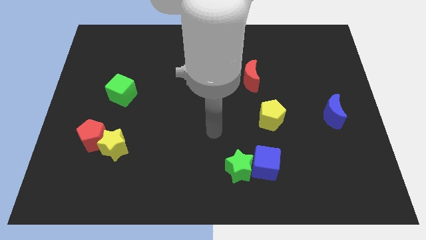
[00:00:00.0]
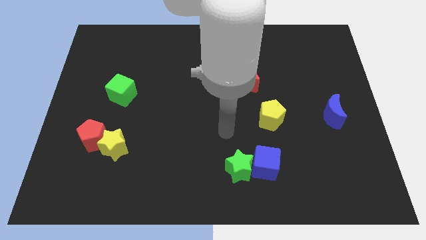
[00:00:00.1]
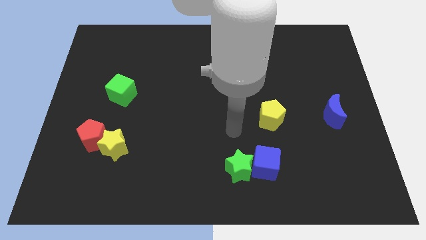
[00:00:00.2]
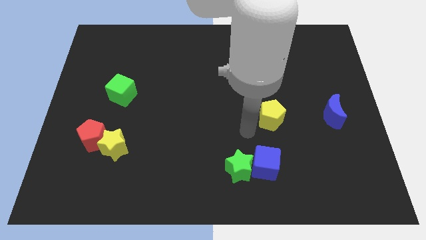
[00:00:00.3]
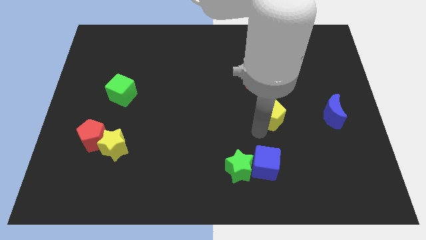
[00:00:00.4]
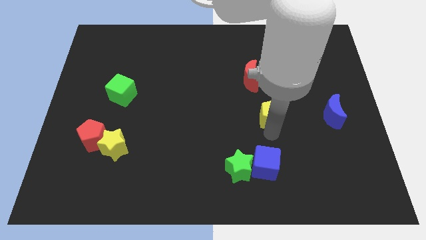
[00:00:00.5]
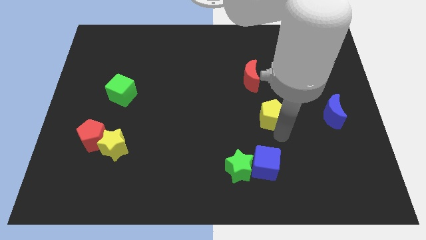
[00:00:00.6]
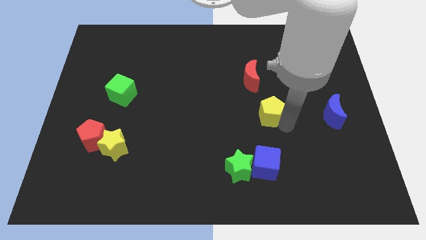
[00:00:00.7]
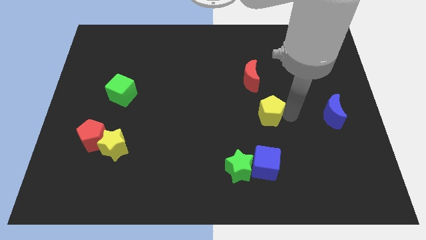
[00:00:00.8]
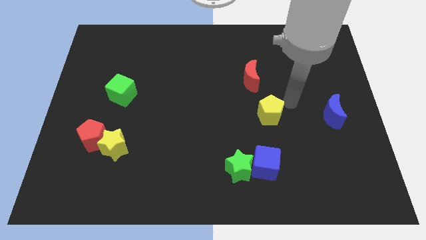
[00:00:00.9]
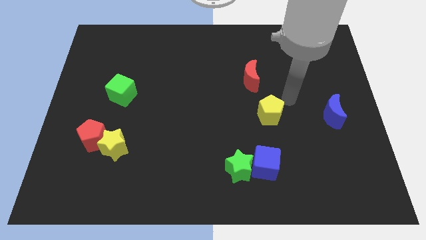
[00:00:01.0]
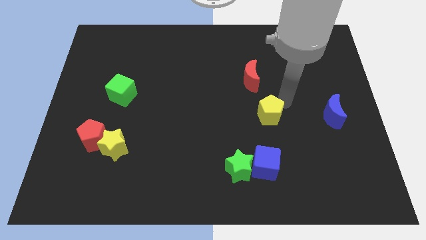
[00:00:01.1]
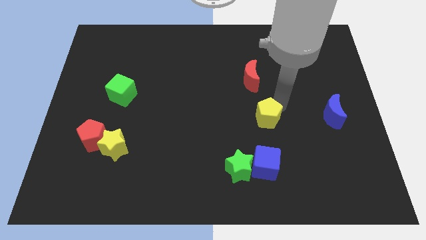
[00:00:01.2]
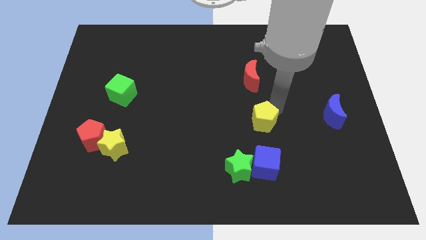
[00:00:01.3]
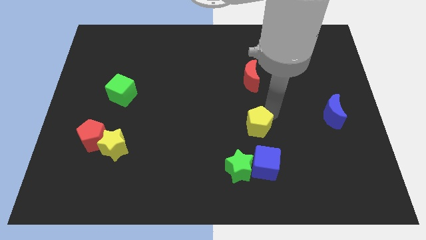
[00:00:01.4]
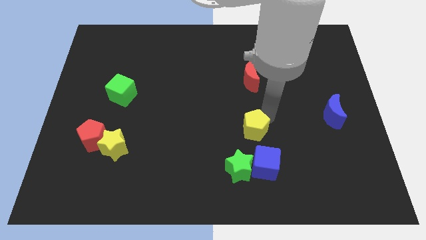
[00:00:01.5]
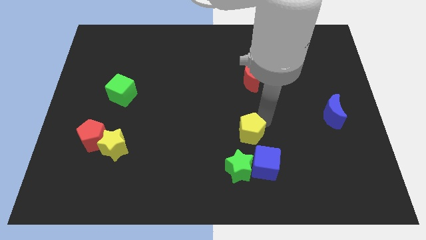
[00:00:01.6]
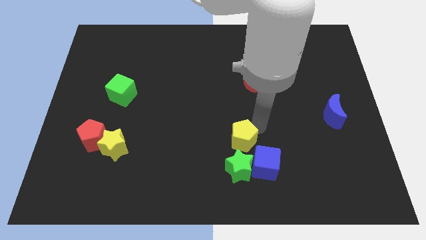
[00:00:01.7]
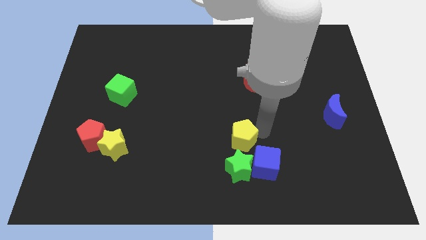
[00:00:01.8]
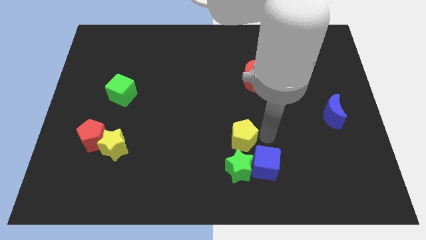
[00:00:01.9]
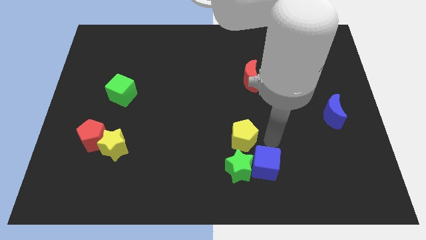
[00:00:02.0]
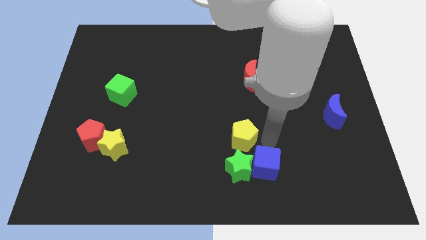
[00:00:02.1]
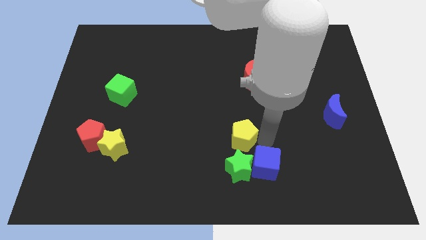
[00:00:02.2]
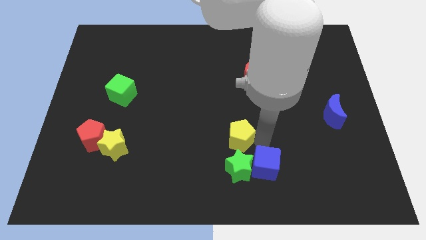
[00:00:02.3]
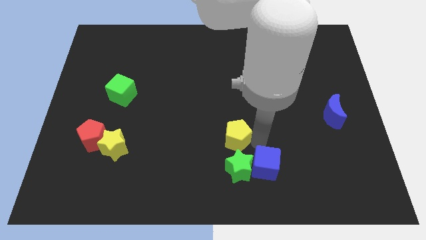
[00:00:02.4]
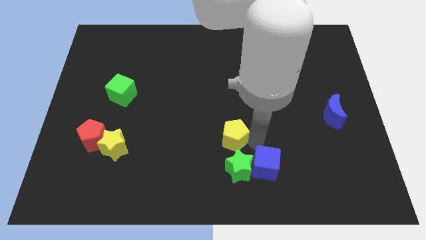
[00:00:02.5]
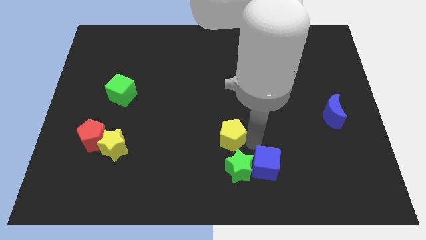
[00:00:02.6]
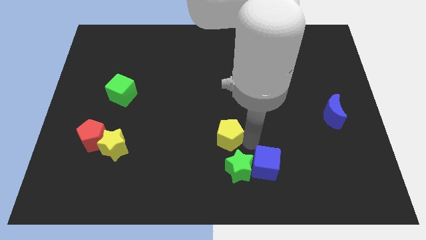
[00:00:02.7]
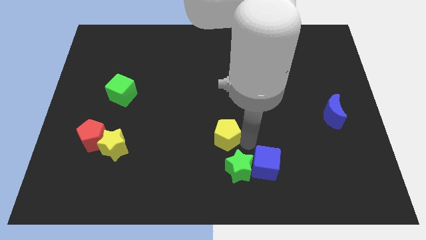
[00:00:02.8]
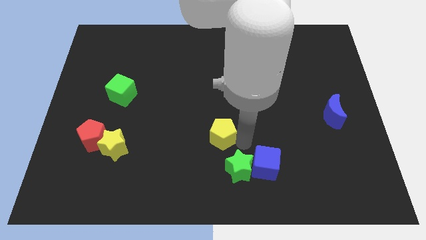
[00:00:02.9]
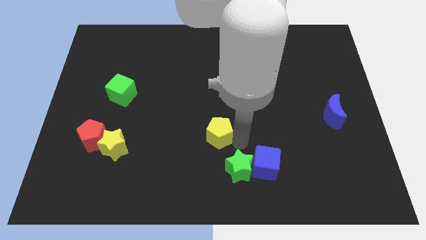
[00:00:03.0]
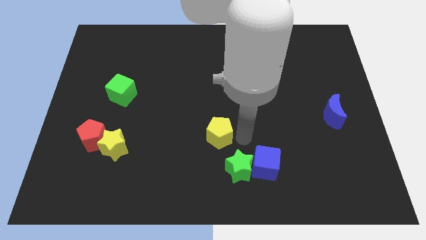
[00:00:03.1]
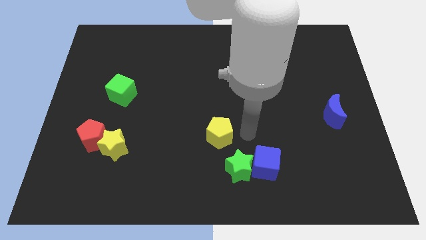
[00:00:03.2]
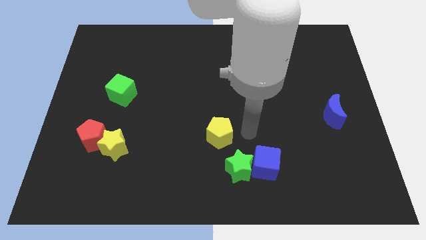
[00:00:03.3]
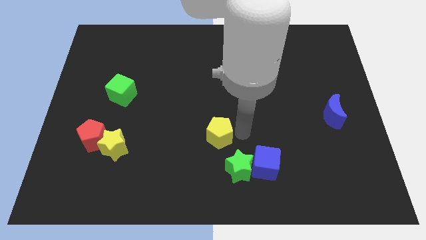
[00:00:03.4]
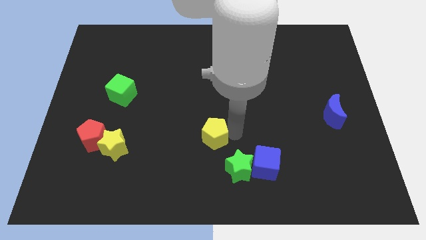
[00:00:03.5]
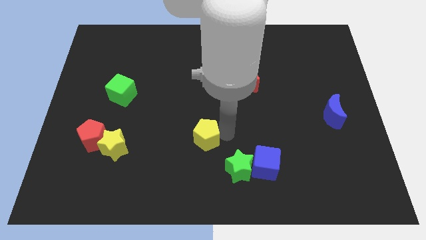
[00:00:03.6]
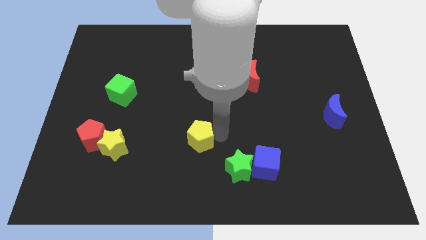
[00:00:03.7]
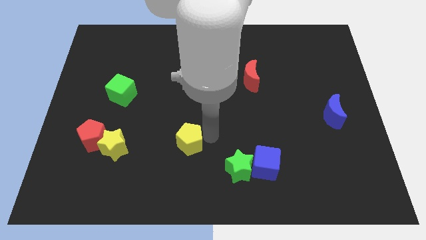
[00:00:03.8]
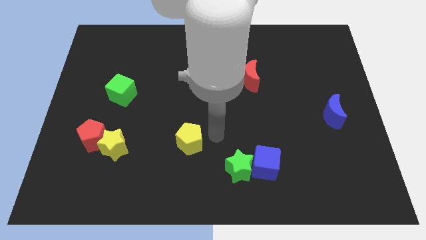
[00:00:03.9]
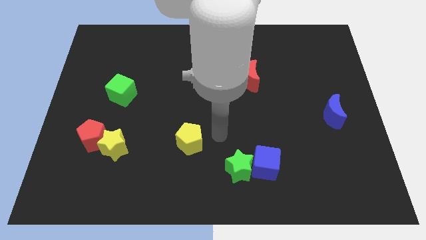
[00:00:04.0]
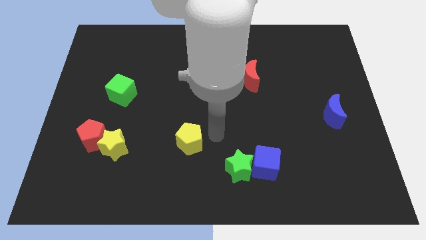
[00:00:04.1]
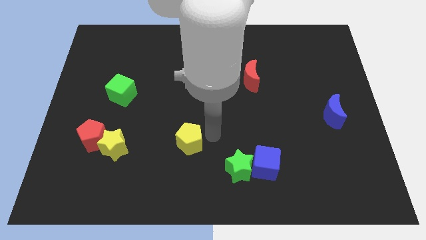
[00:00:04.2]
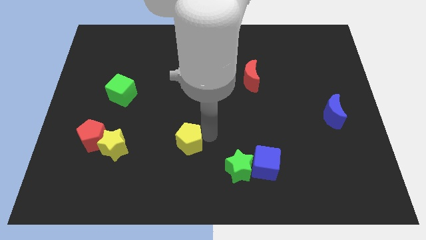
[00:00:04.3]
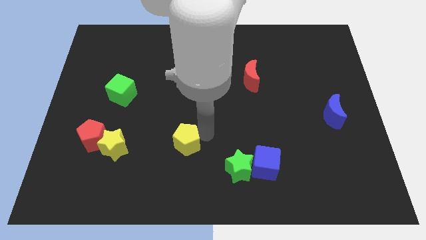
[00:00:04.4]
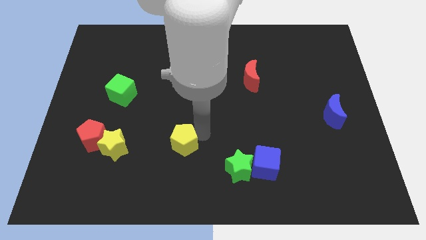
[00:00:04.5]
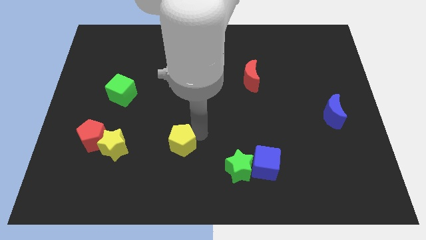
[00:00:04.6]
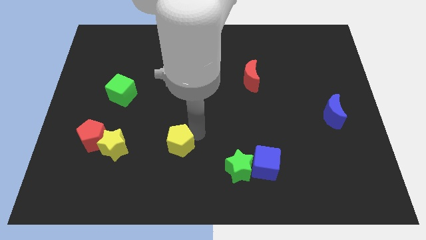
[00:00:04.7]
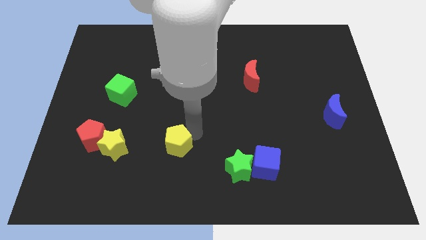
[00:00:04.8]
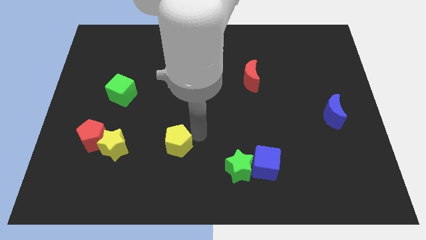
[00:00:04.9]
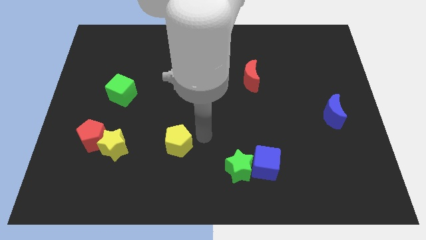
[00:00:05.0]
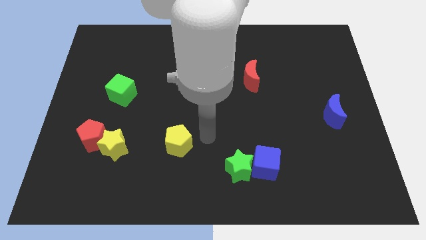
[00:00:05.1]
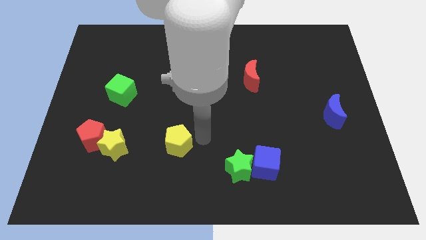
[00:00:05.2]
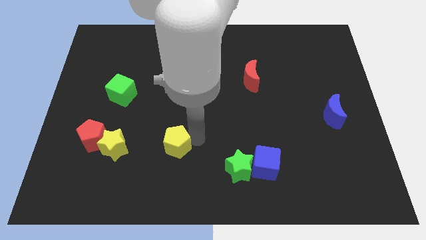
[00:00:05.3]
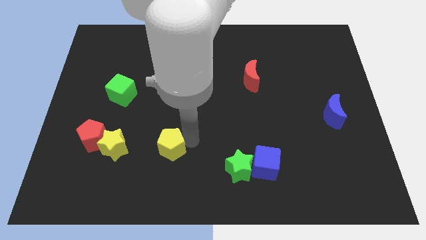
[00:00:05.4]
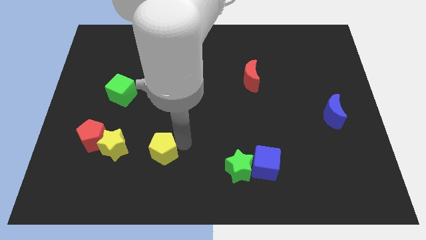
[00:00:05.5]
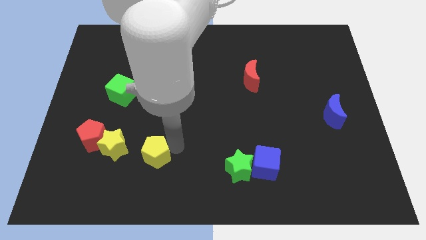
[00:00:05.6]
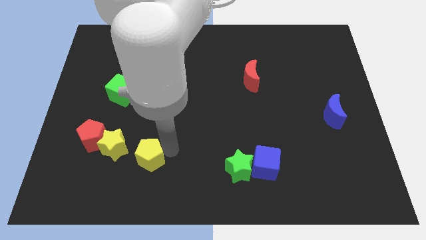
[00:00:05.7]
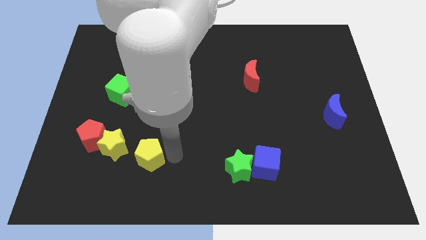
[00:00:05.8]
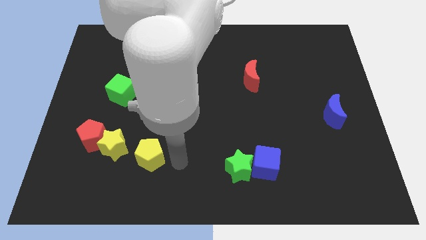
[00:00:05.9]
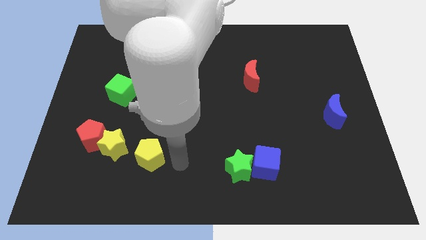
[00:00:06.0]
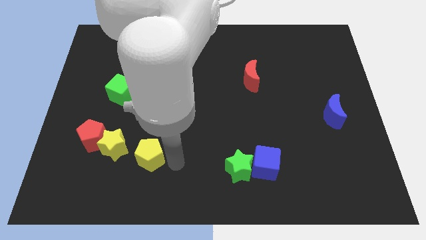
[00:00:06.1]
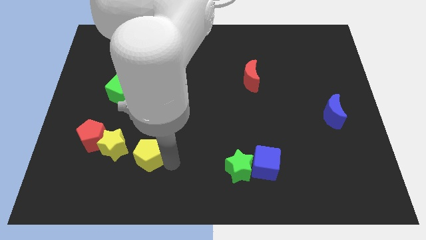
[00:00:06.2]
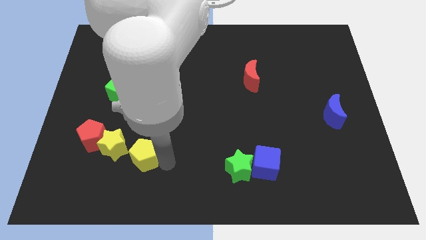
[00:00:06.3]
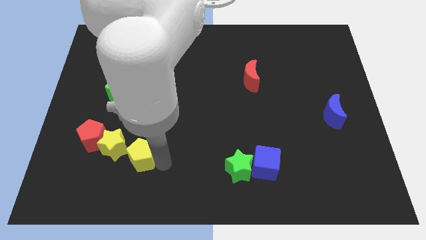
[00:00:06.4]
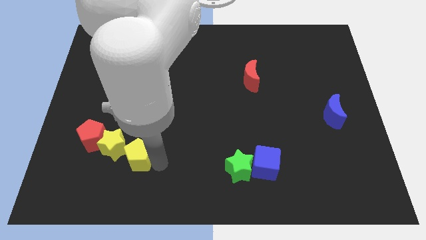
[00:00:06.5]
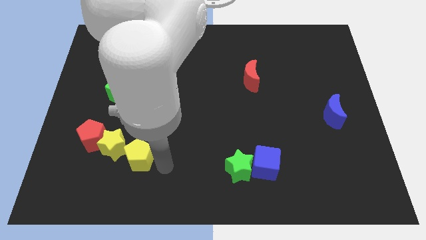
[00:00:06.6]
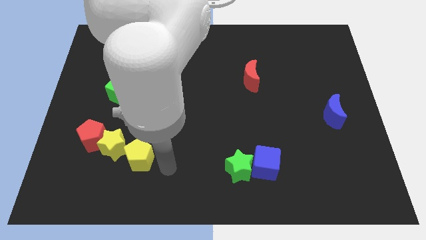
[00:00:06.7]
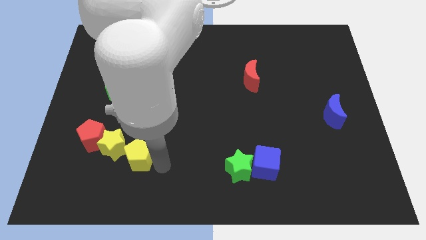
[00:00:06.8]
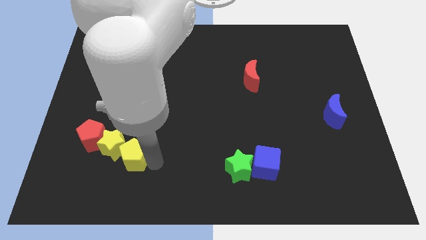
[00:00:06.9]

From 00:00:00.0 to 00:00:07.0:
move the yellow pentagon close to the yellow star
